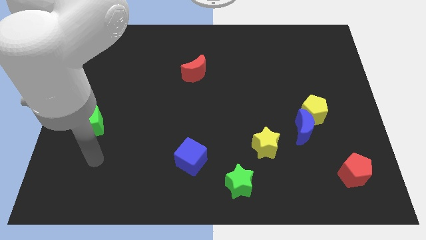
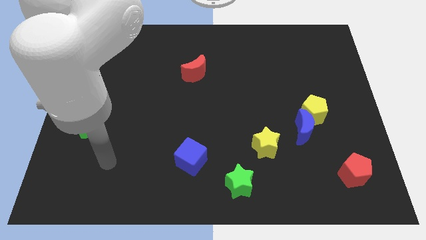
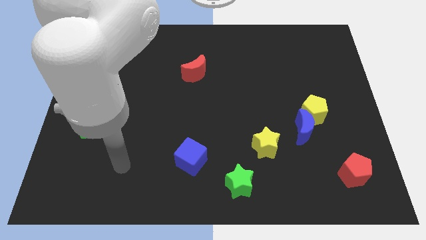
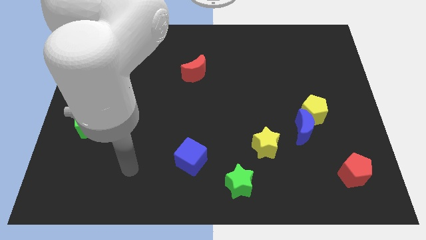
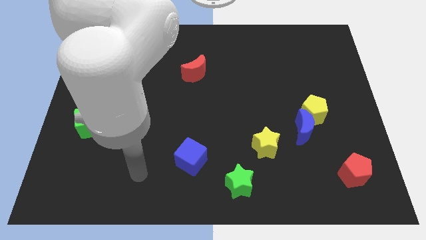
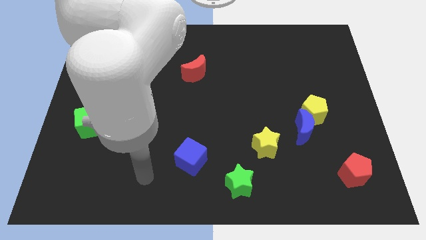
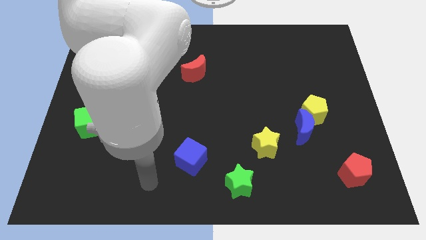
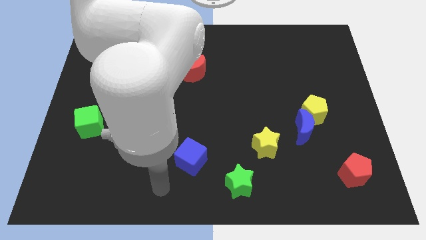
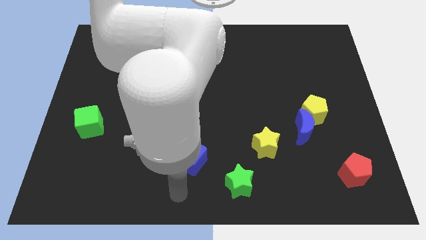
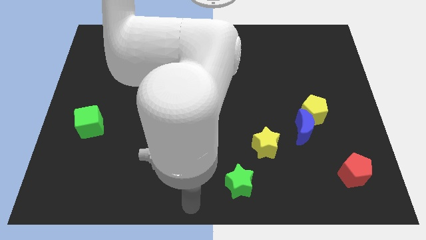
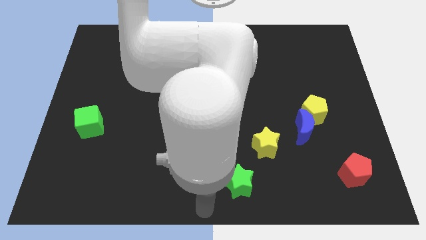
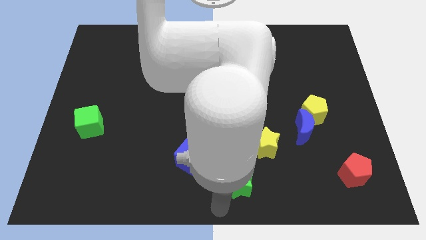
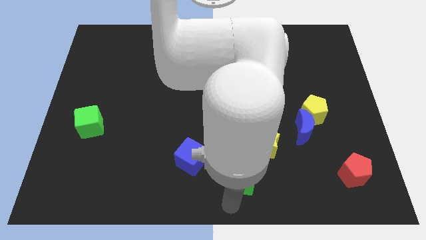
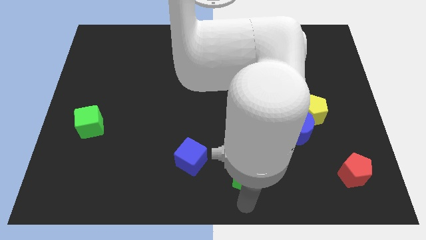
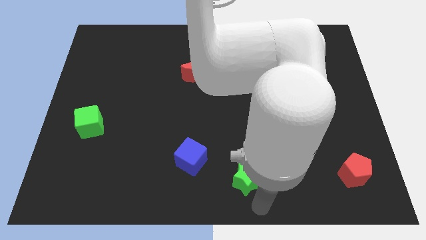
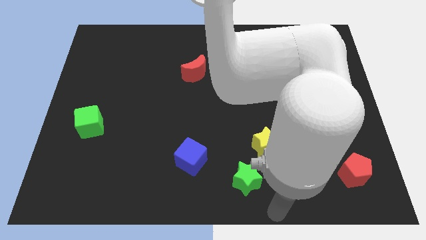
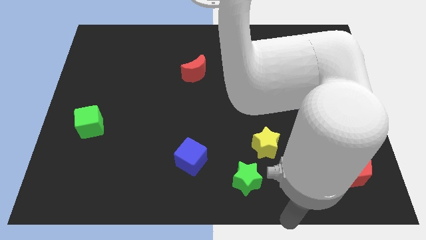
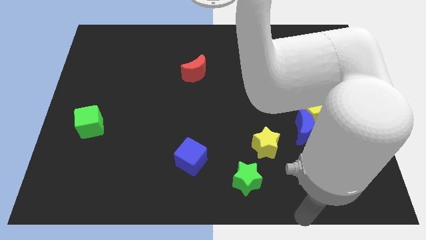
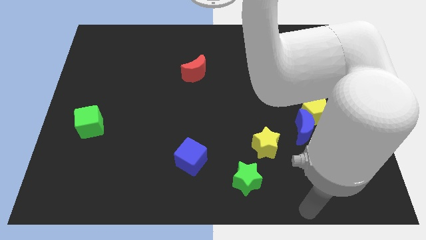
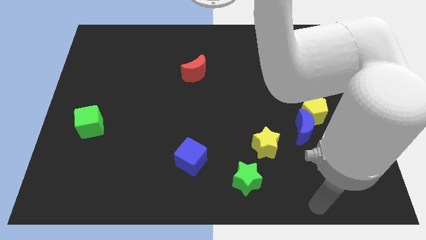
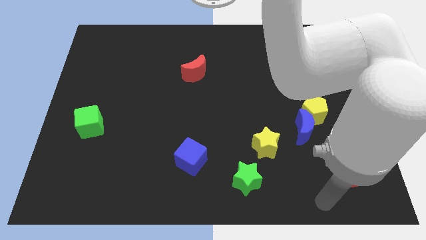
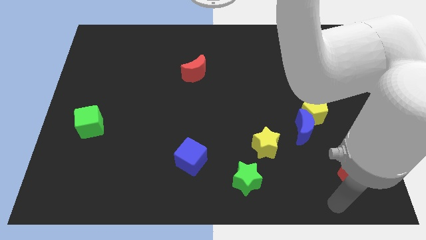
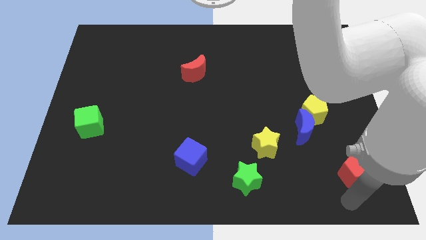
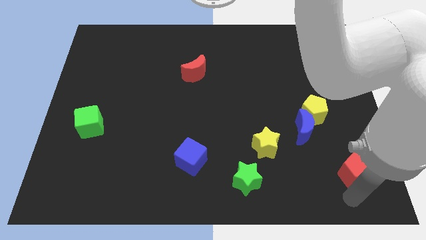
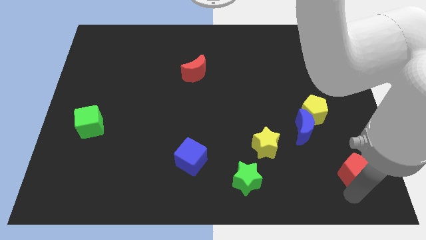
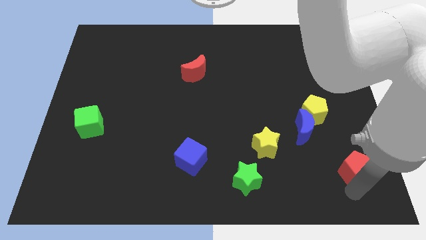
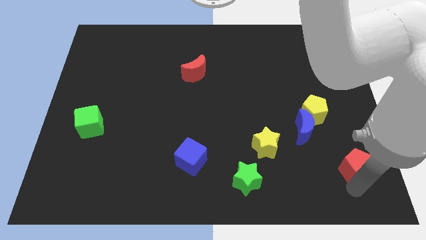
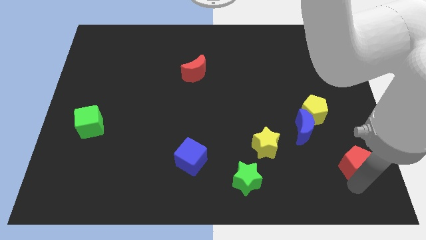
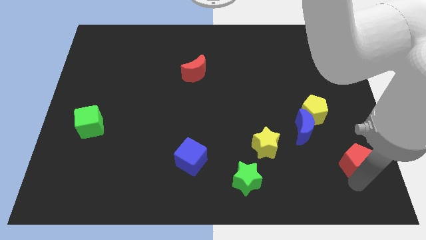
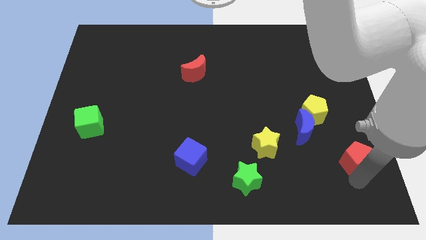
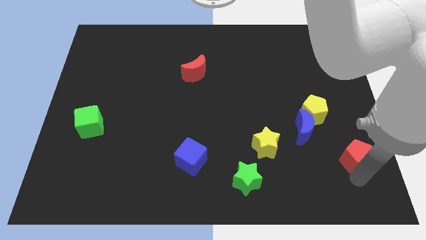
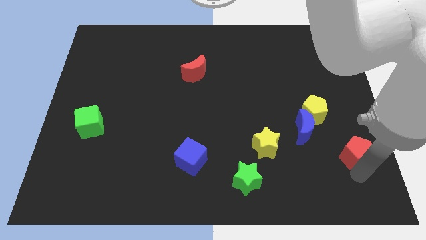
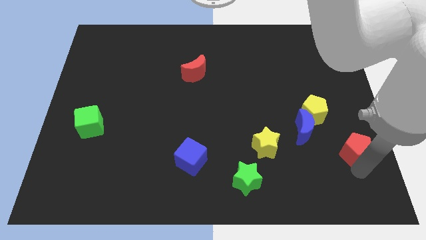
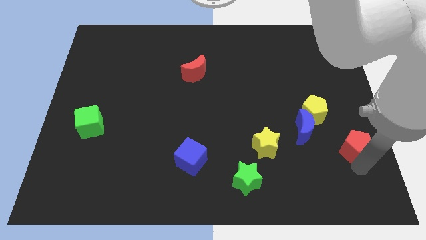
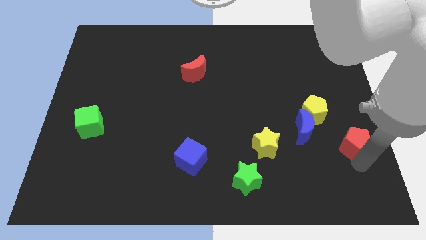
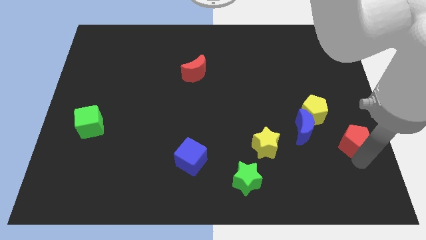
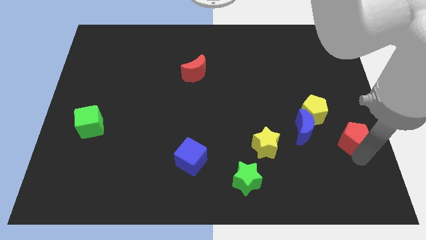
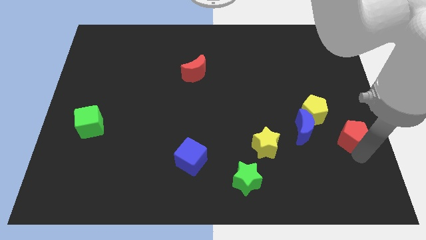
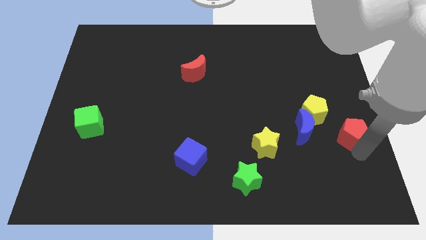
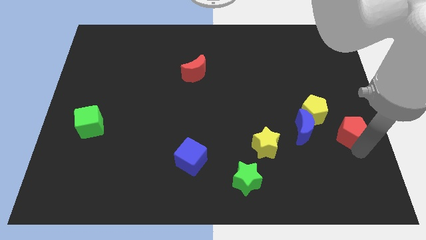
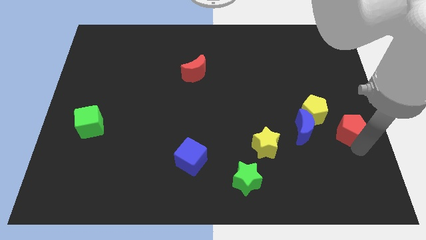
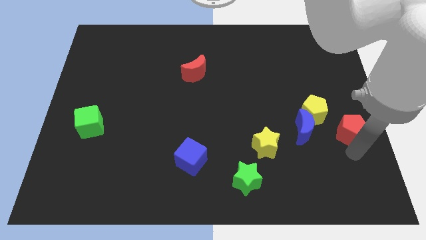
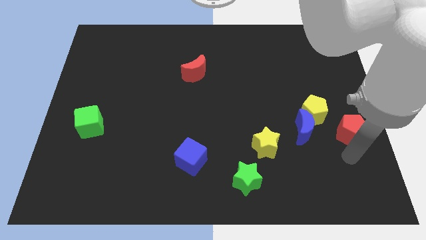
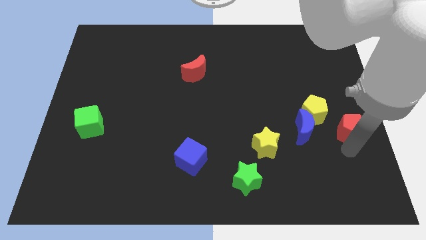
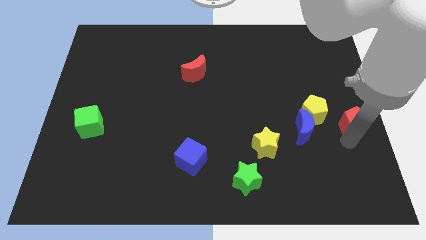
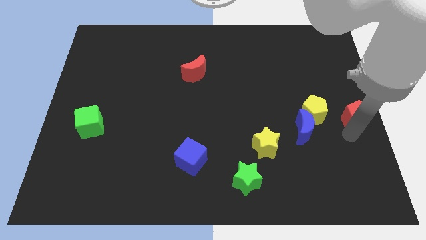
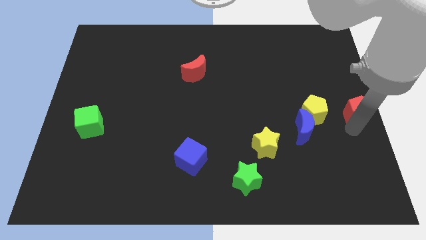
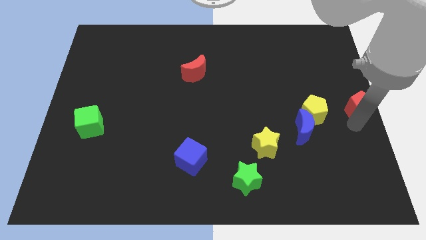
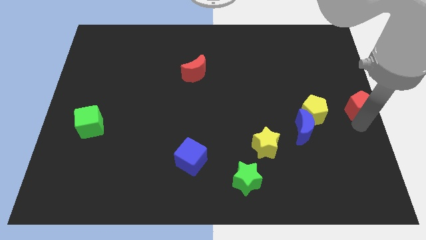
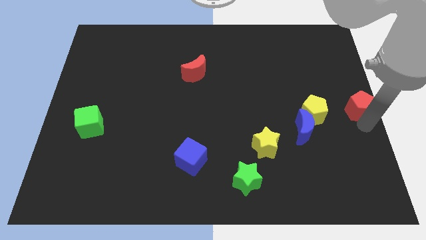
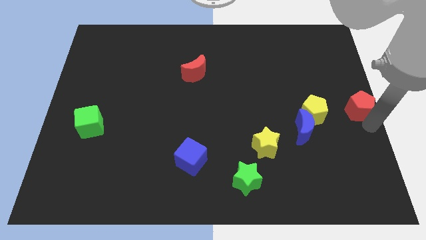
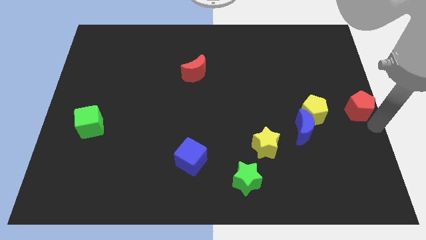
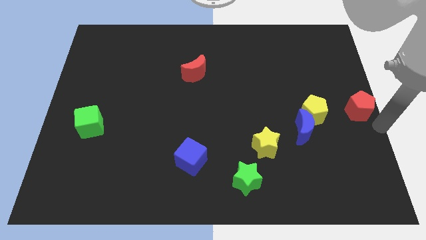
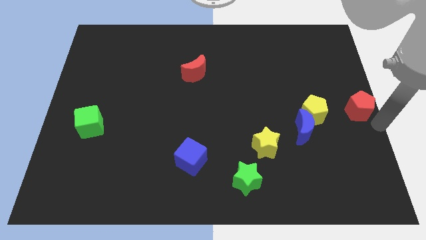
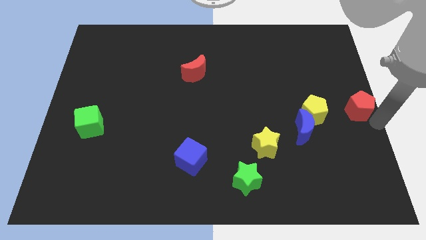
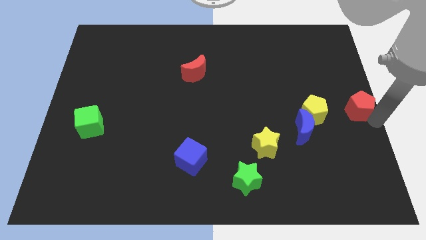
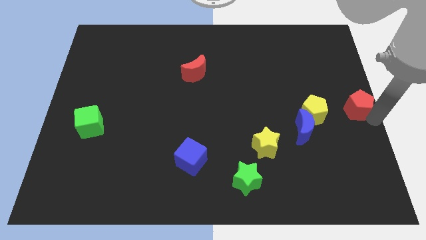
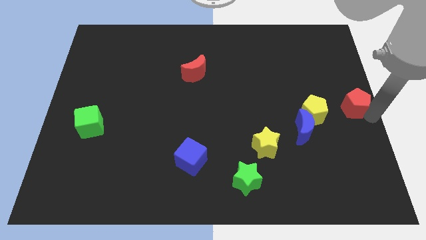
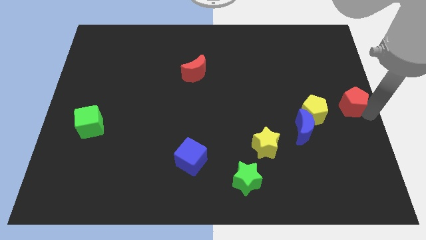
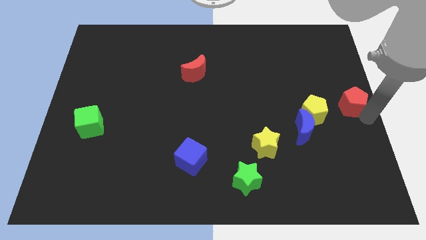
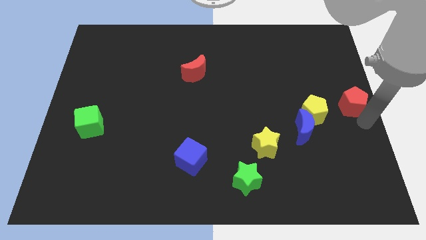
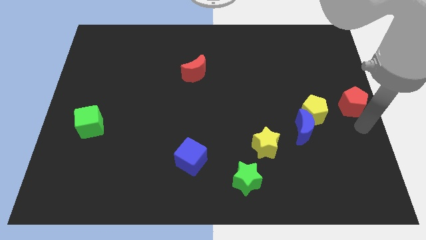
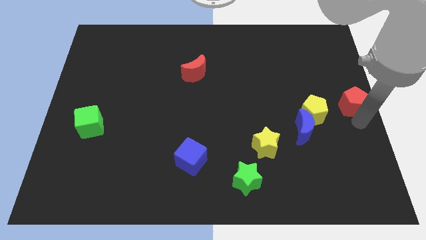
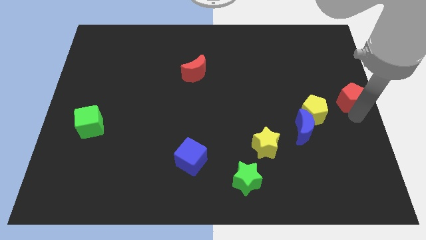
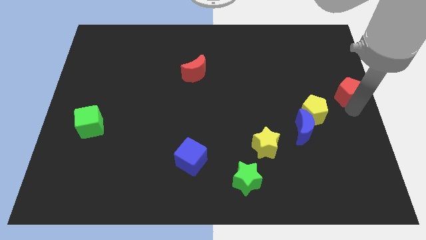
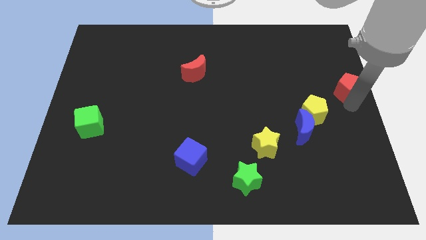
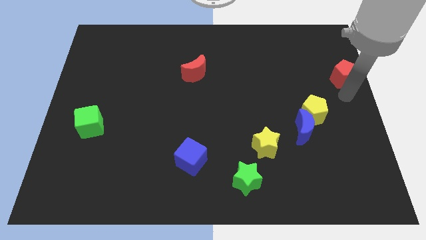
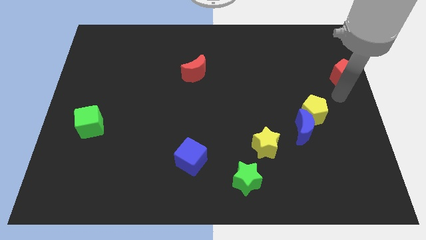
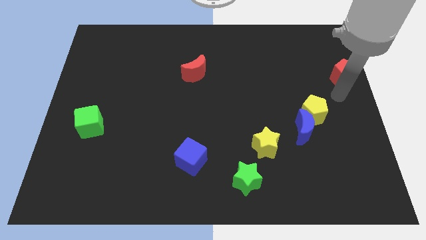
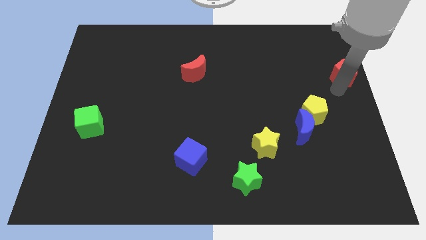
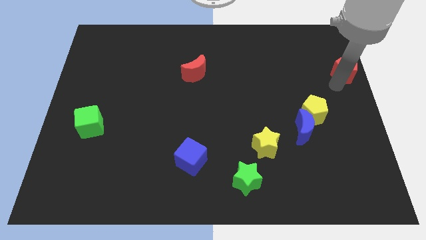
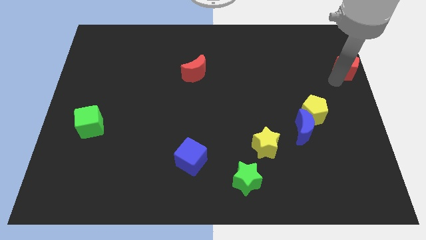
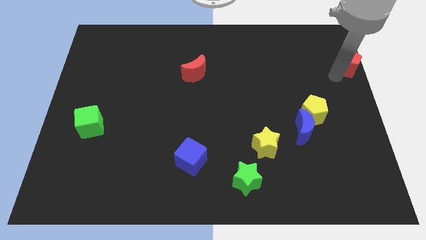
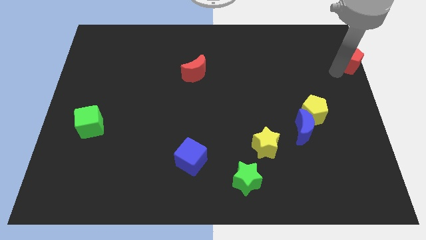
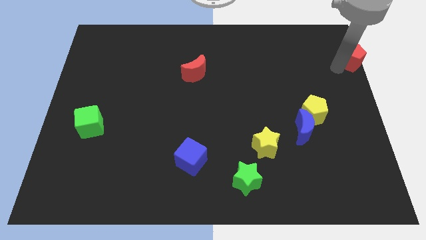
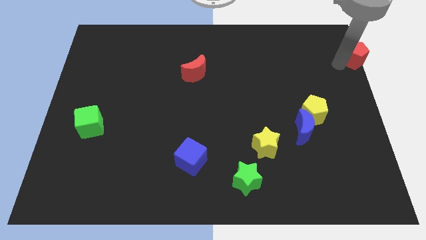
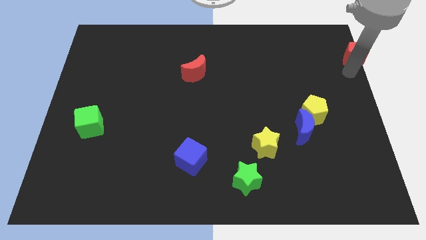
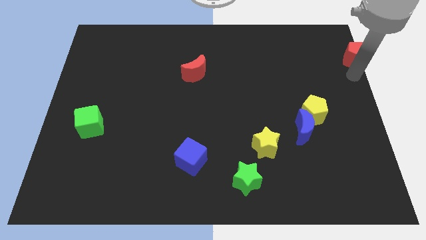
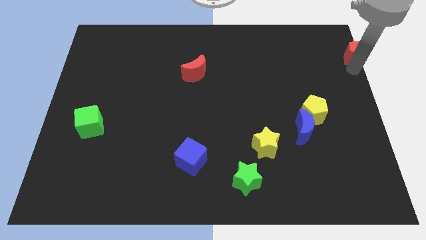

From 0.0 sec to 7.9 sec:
push the red pentagon to the top right of the board
